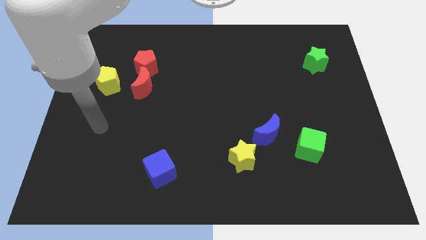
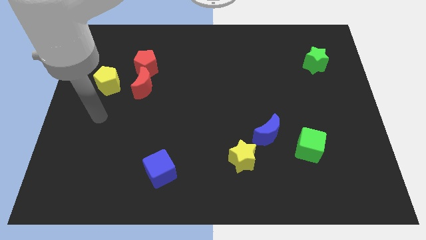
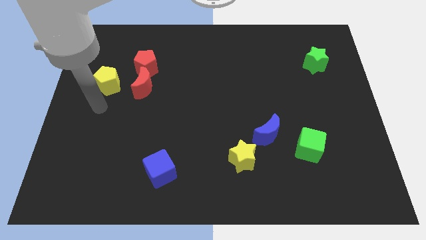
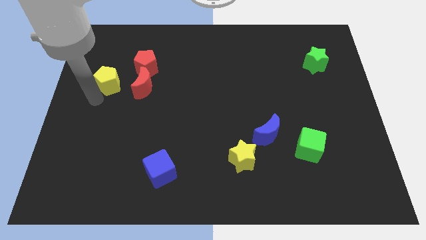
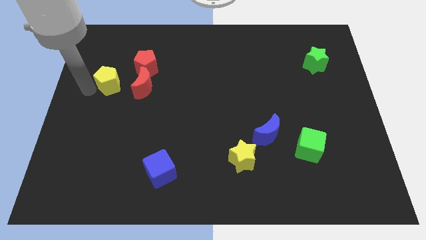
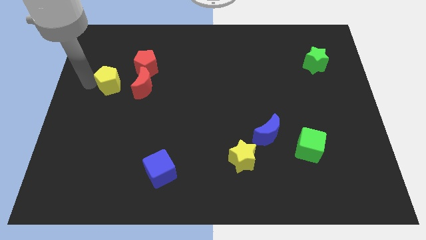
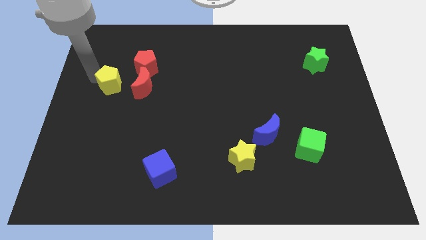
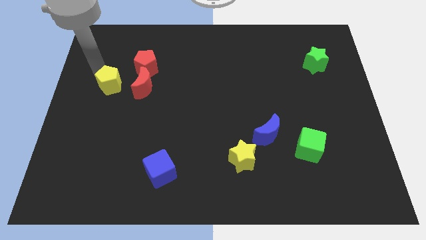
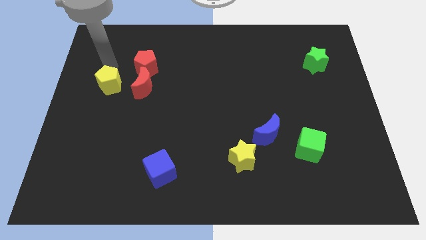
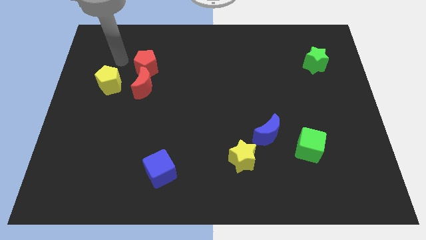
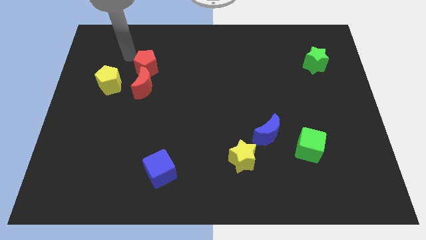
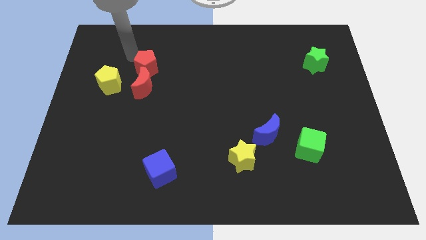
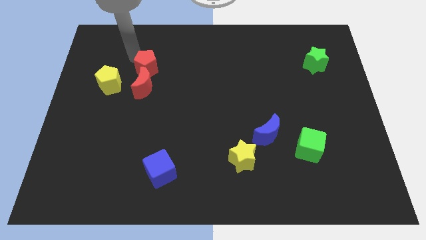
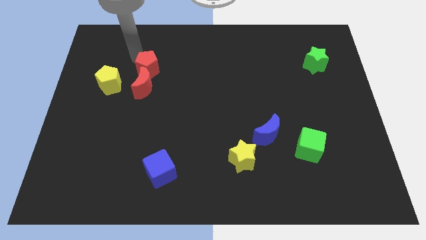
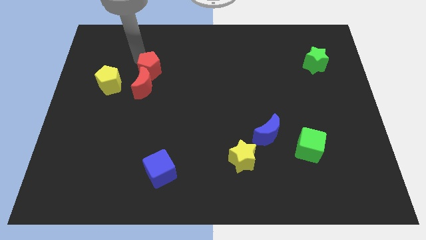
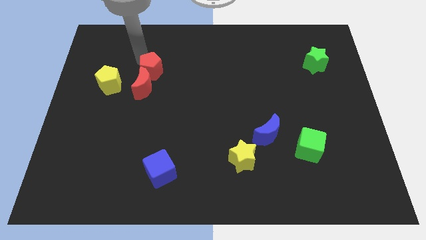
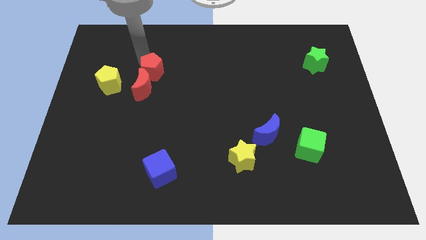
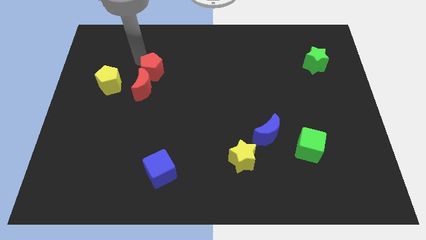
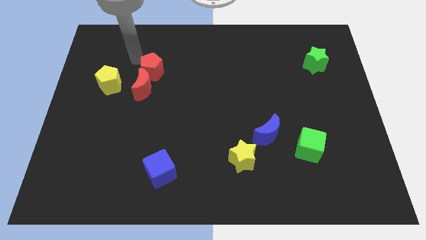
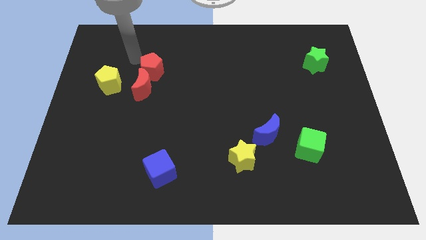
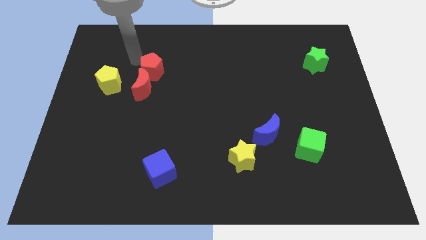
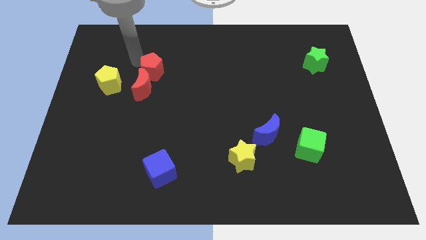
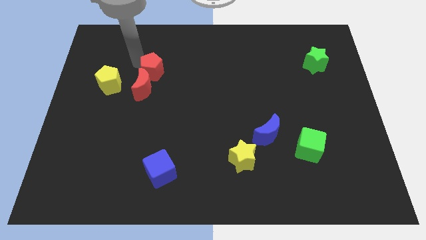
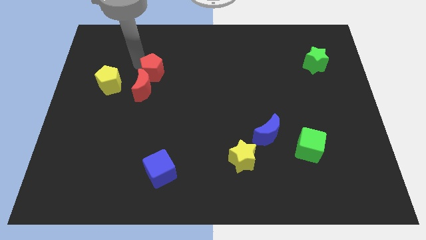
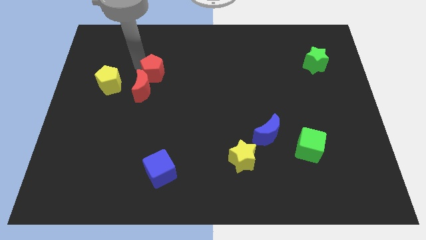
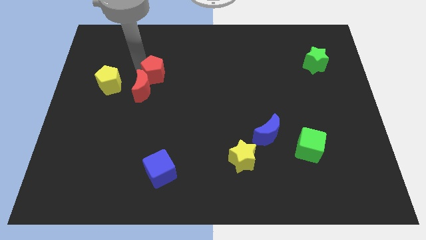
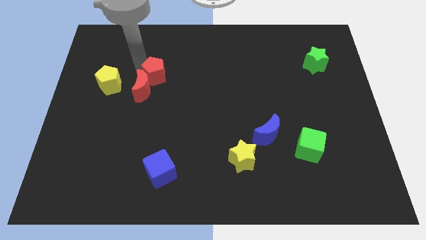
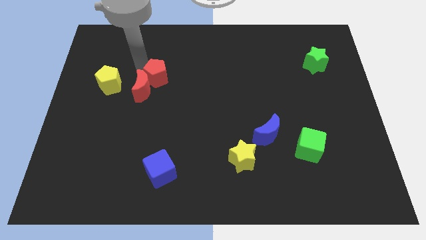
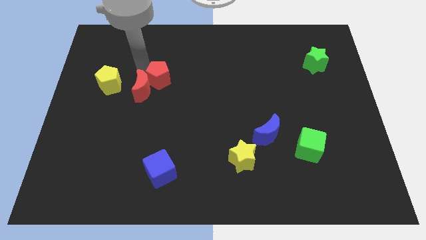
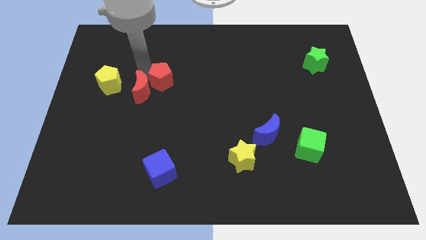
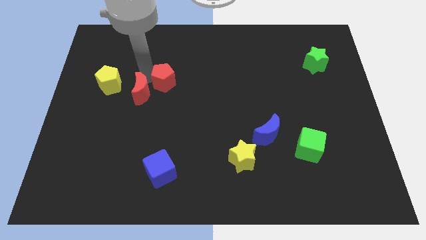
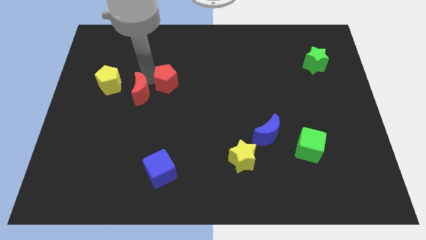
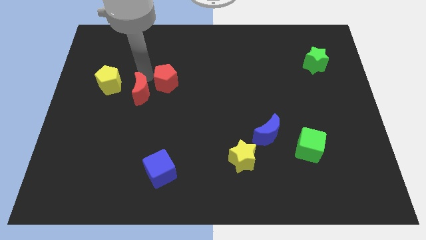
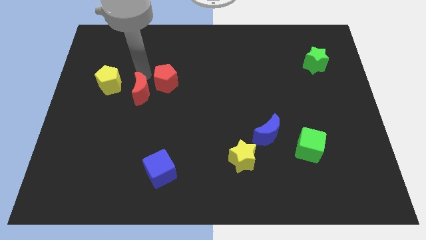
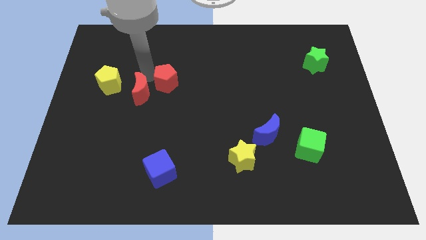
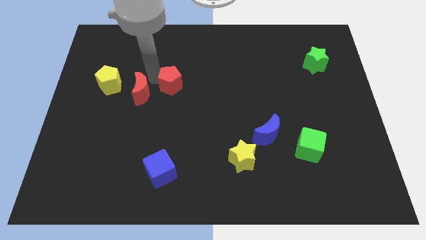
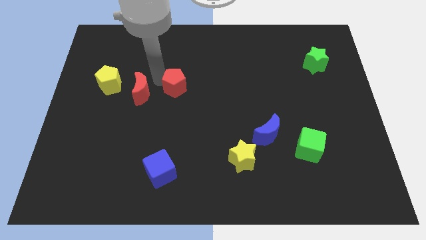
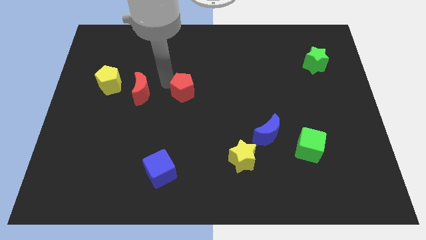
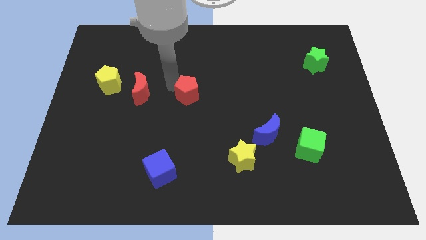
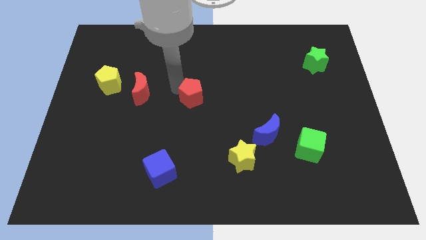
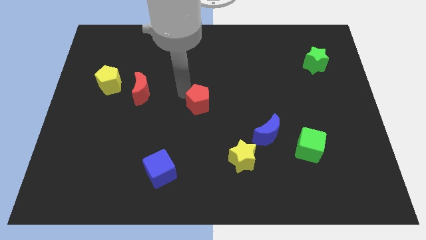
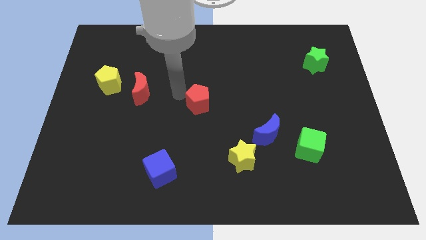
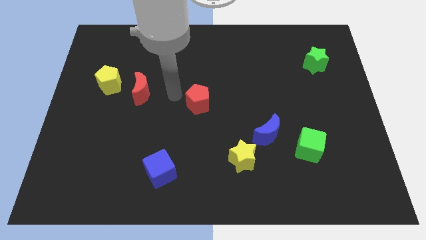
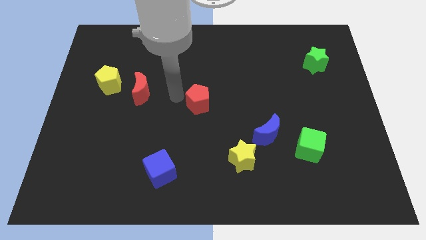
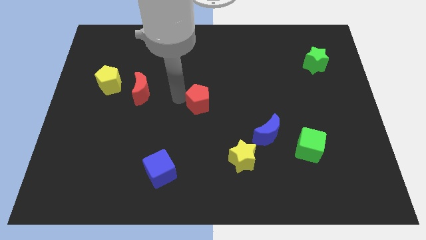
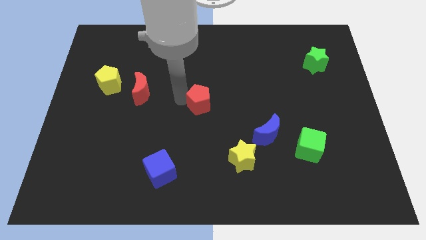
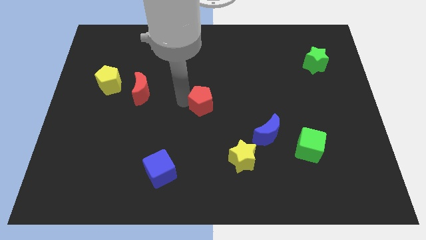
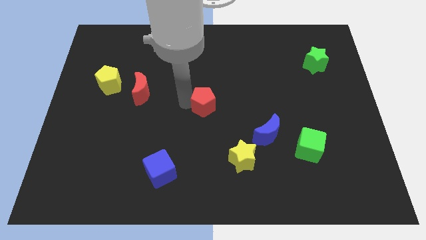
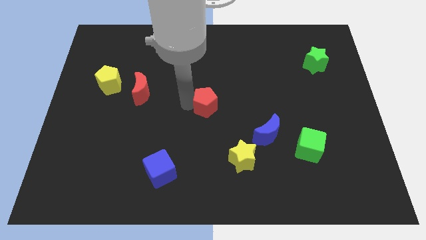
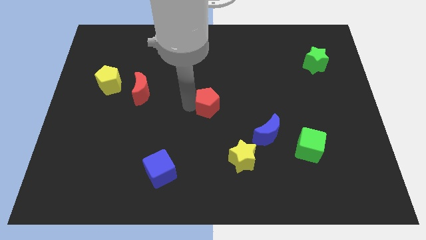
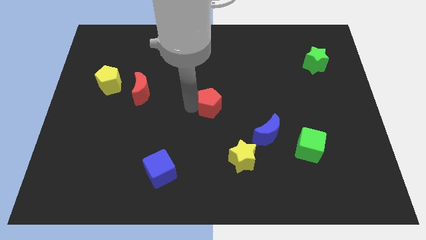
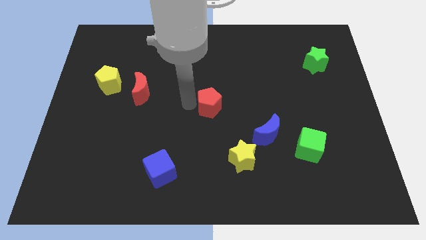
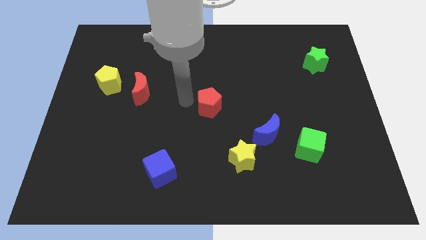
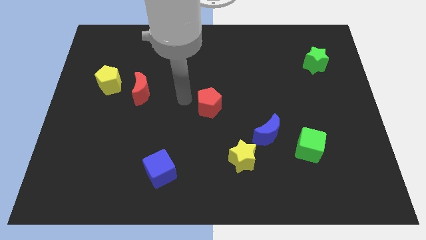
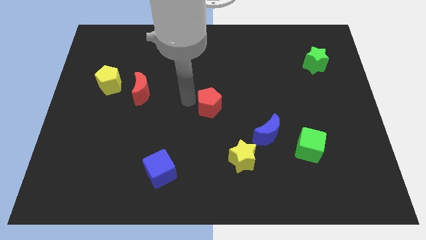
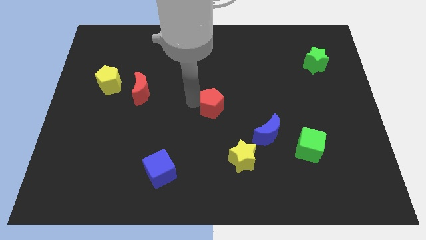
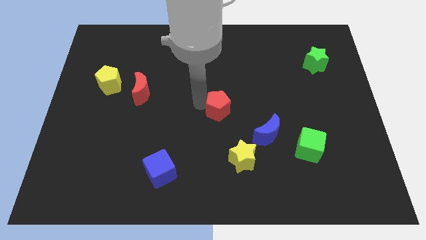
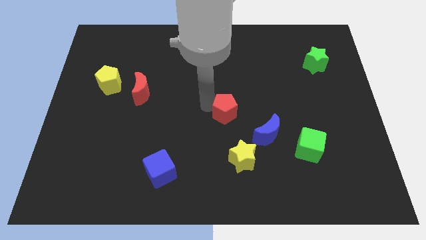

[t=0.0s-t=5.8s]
move the red pentagon above the yellow star

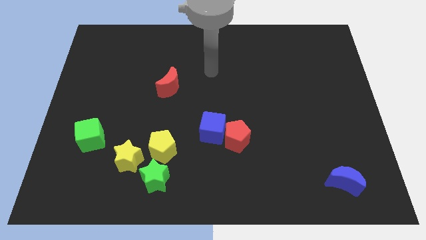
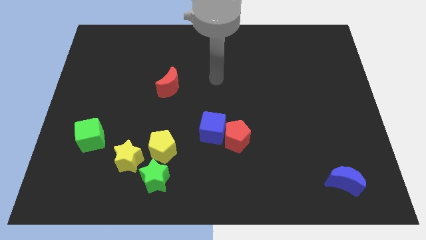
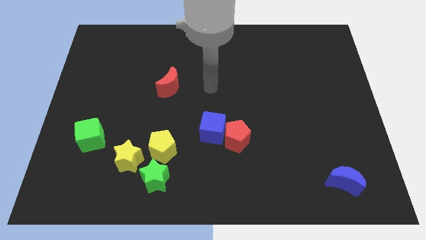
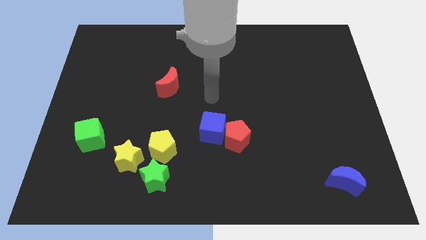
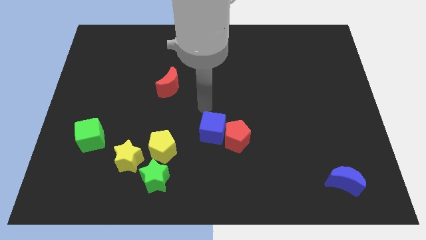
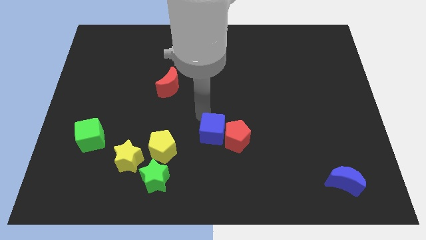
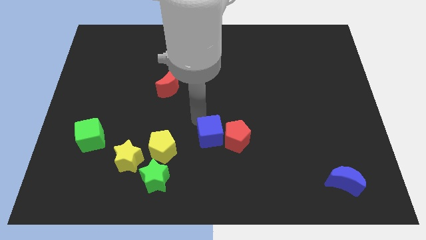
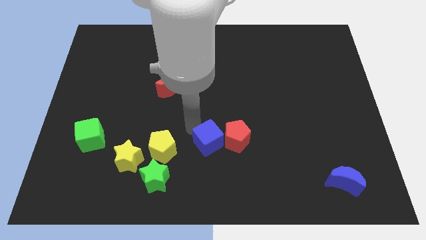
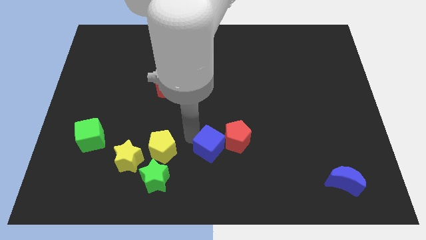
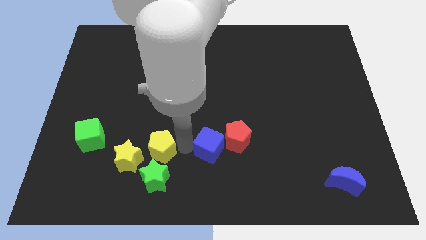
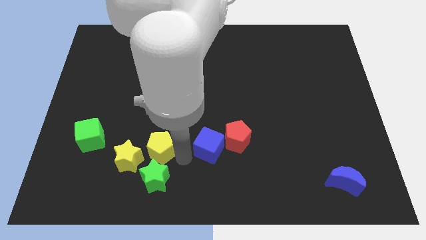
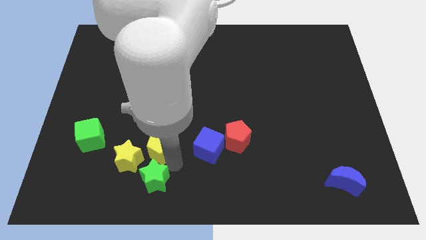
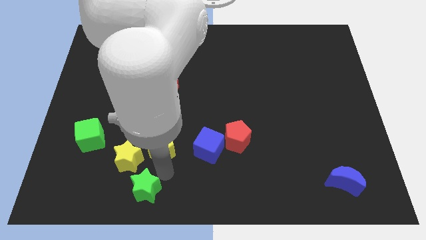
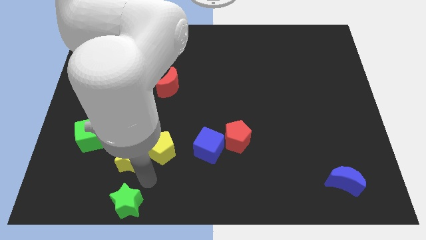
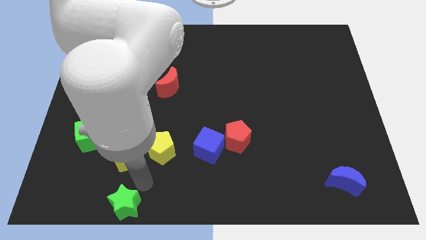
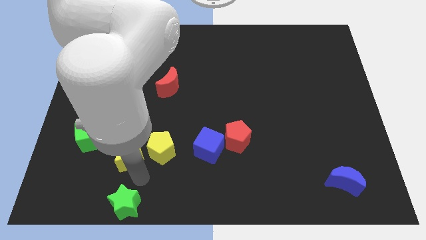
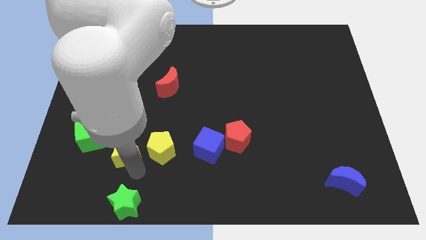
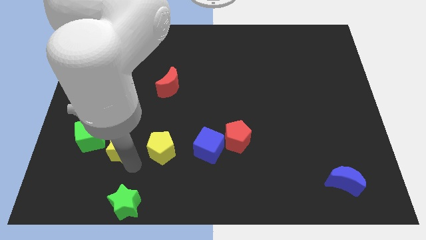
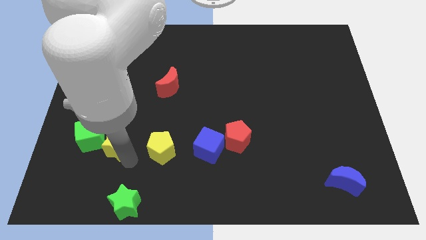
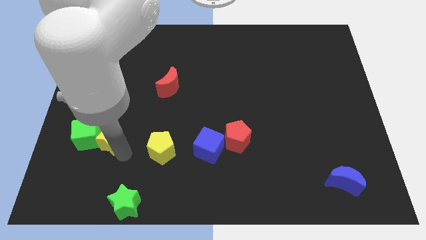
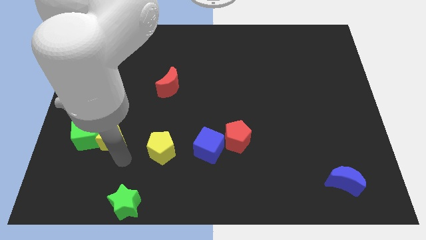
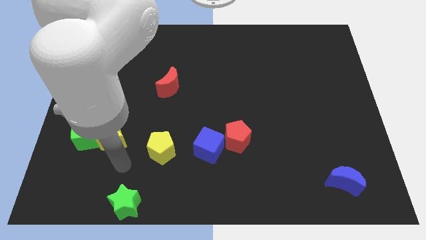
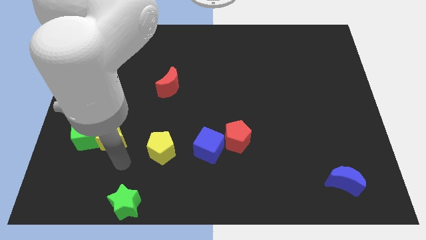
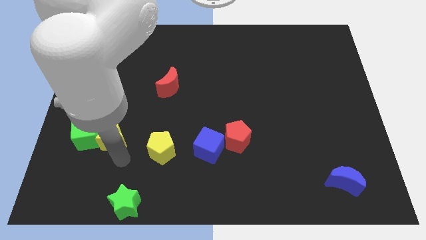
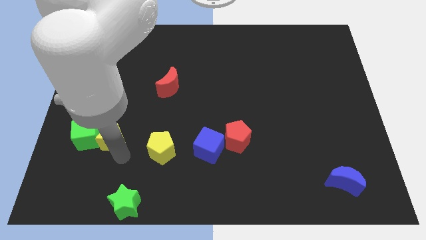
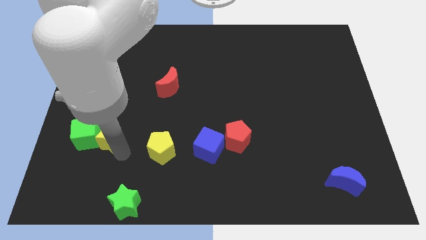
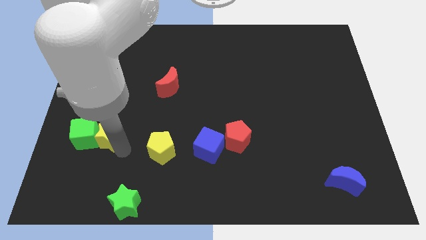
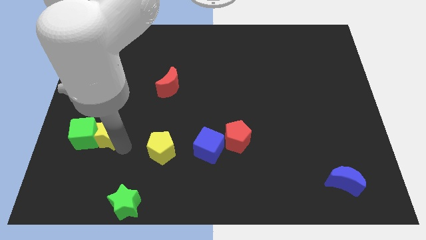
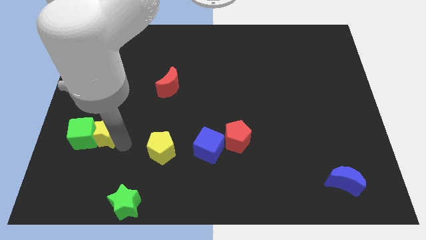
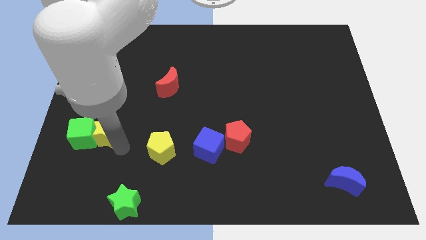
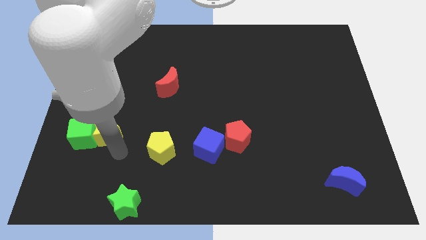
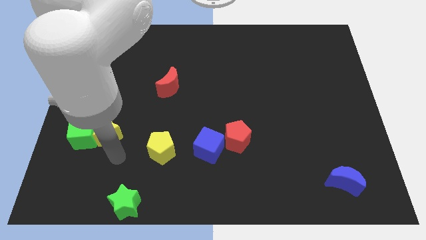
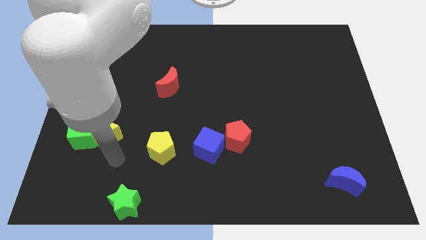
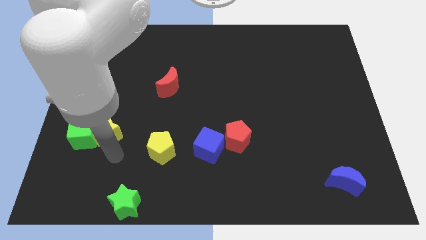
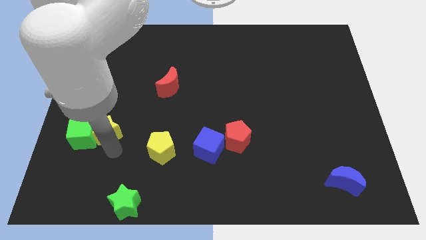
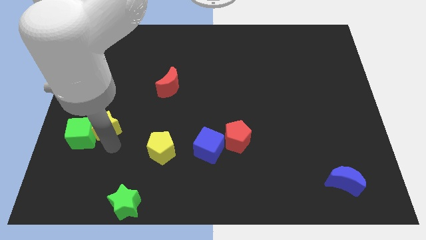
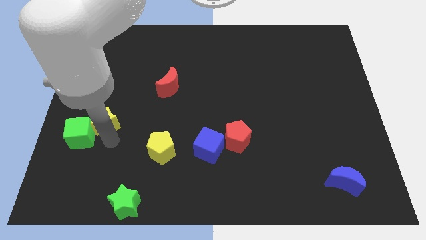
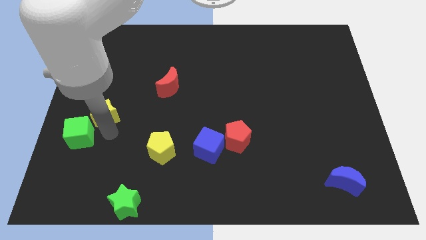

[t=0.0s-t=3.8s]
put the yellow star to the top side of the green cube
